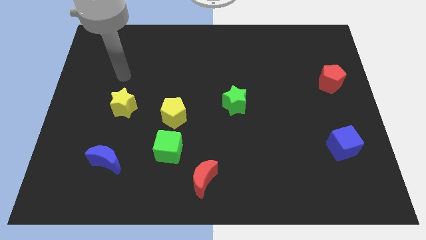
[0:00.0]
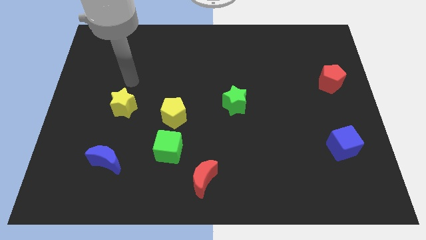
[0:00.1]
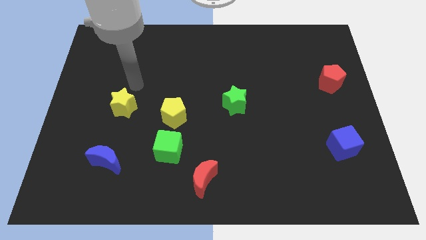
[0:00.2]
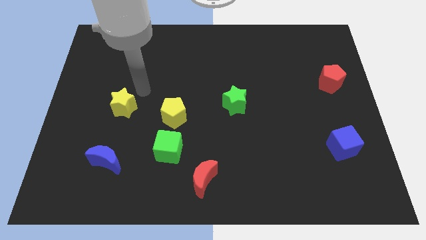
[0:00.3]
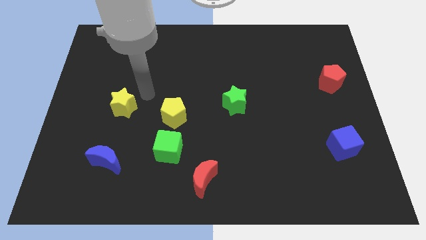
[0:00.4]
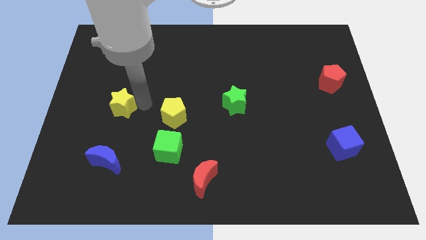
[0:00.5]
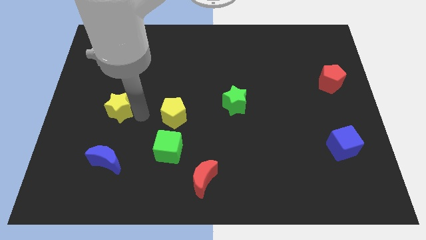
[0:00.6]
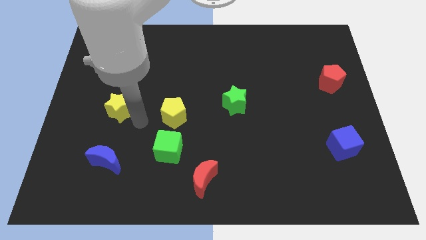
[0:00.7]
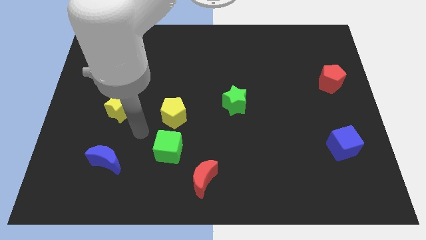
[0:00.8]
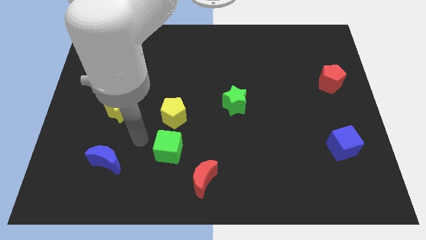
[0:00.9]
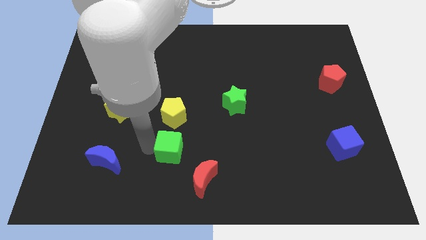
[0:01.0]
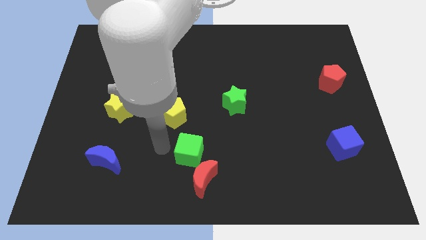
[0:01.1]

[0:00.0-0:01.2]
pull the yellow pentagon apart from the green cube

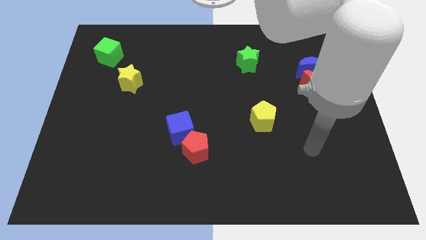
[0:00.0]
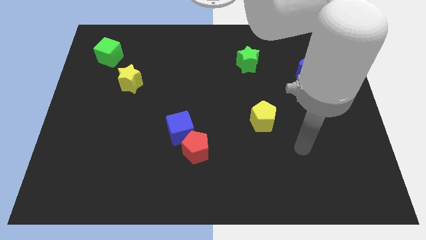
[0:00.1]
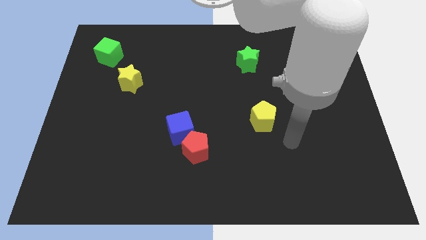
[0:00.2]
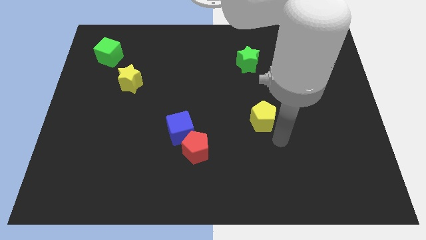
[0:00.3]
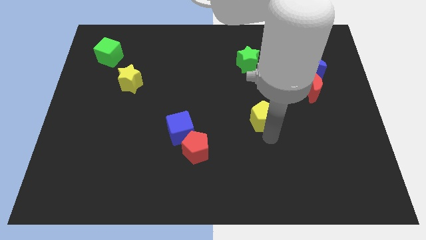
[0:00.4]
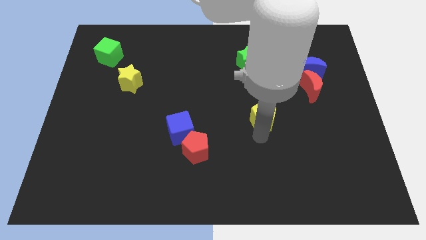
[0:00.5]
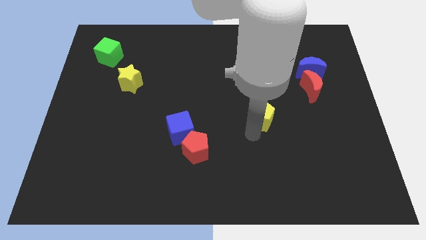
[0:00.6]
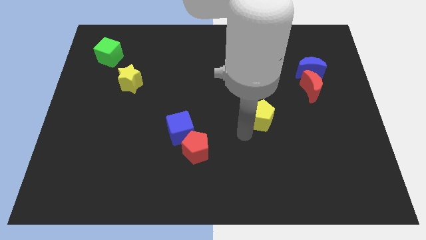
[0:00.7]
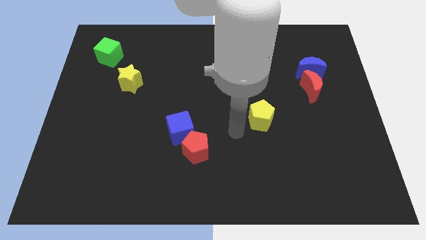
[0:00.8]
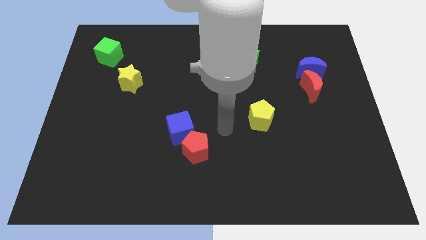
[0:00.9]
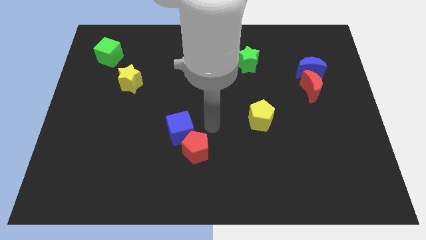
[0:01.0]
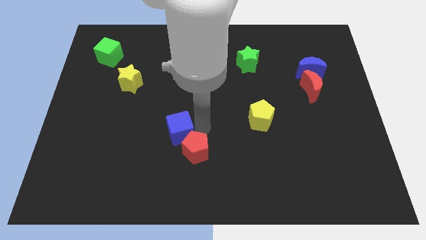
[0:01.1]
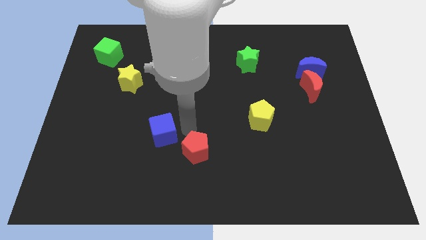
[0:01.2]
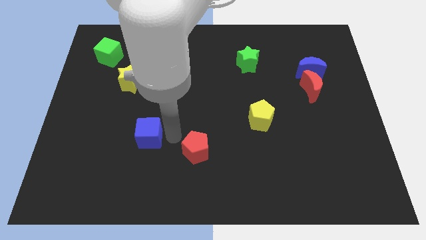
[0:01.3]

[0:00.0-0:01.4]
pull the red pentagon apart from the blue cube

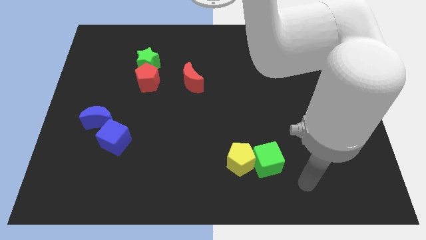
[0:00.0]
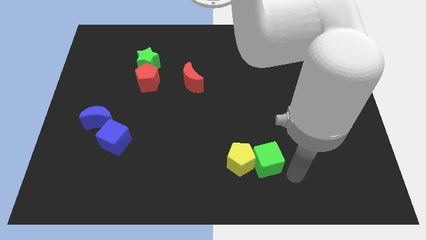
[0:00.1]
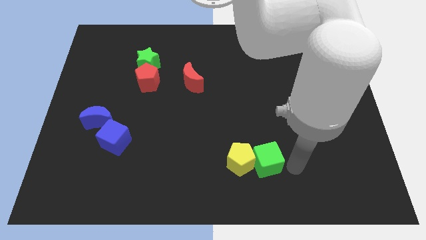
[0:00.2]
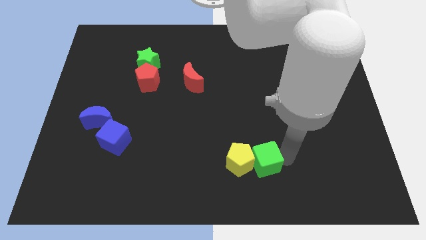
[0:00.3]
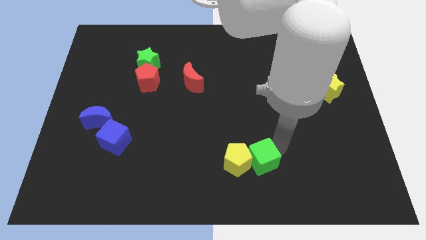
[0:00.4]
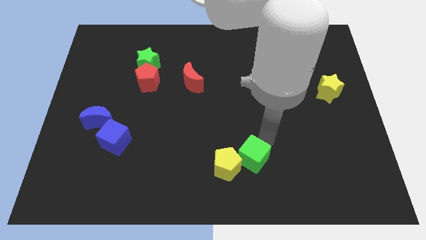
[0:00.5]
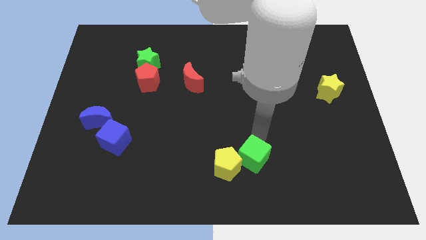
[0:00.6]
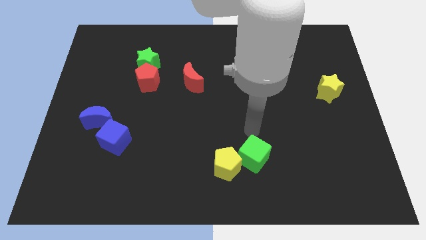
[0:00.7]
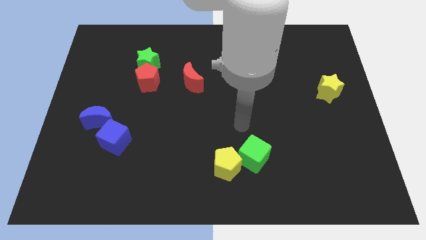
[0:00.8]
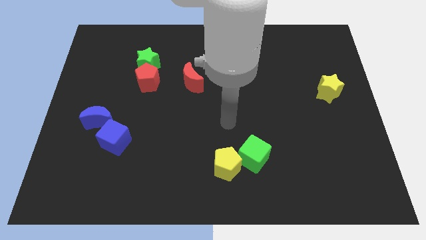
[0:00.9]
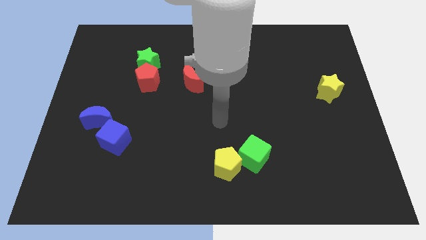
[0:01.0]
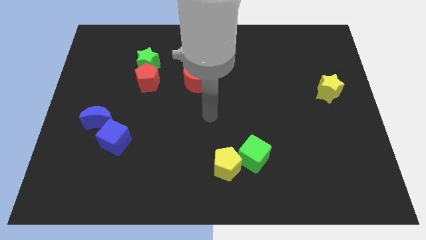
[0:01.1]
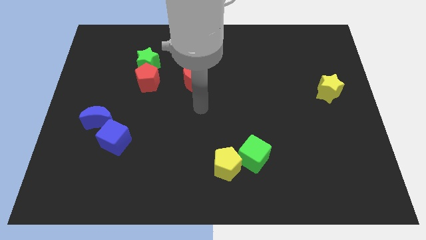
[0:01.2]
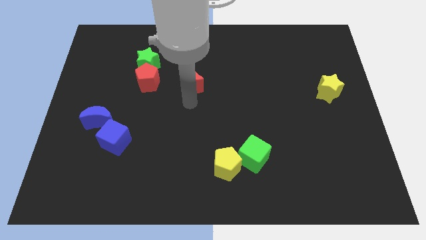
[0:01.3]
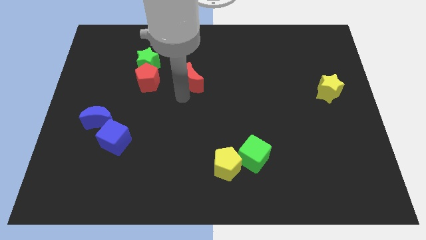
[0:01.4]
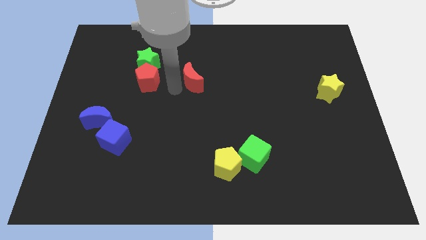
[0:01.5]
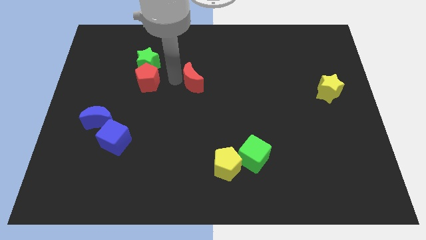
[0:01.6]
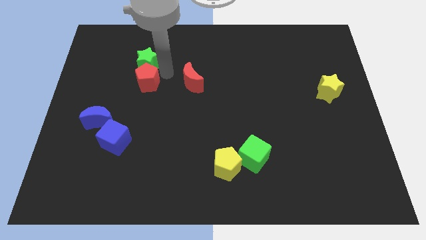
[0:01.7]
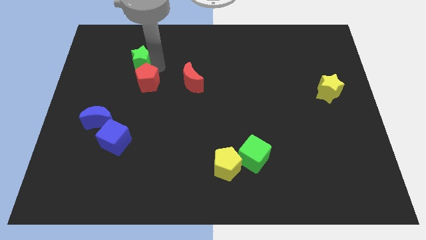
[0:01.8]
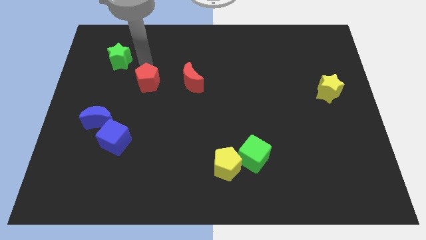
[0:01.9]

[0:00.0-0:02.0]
pull the red pentagon apart from the green star

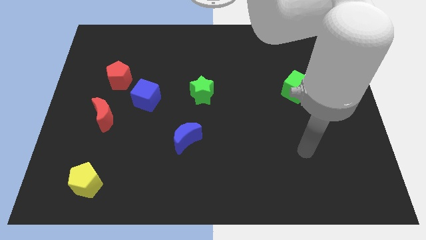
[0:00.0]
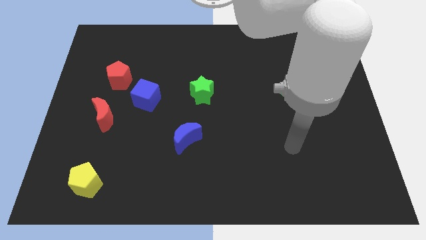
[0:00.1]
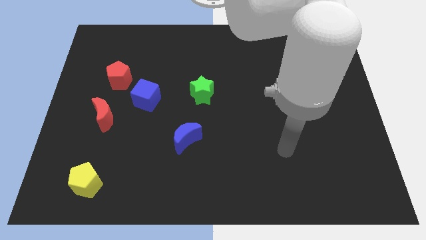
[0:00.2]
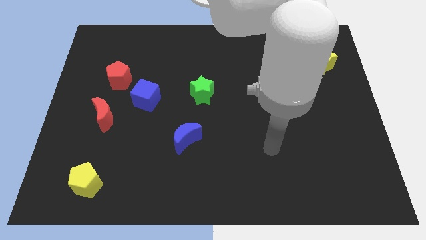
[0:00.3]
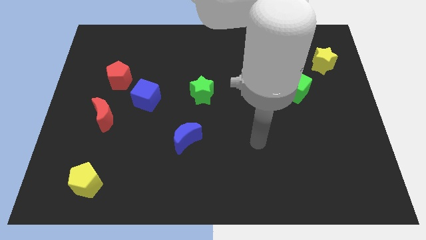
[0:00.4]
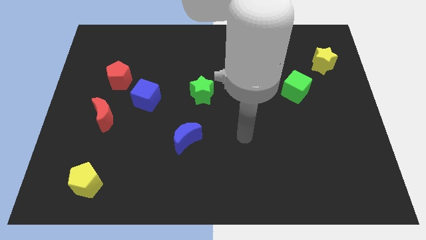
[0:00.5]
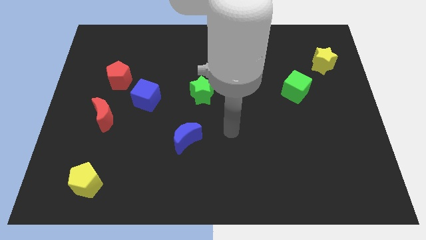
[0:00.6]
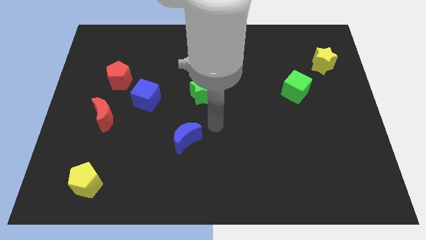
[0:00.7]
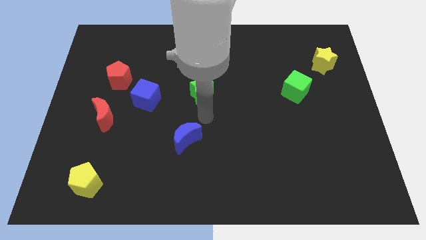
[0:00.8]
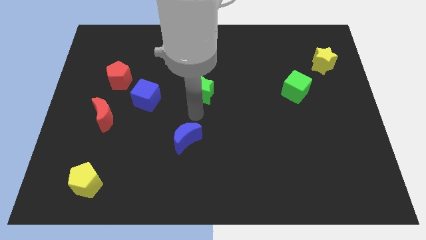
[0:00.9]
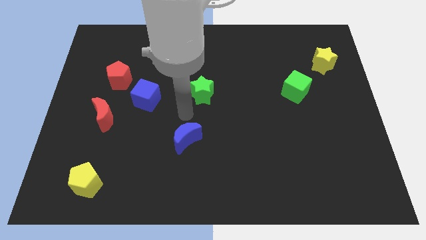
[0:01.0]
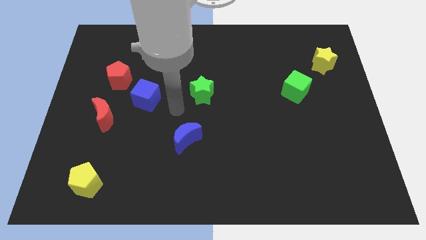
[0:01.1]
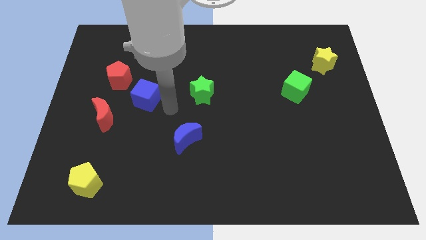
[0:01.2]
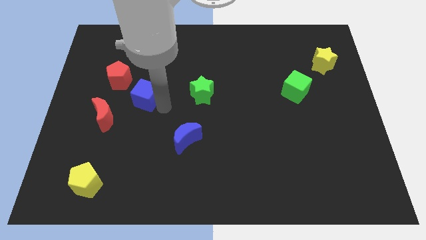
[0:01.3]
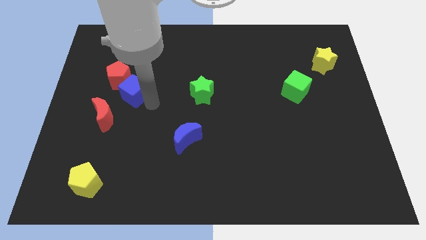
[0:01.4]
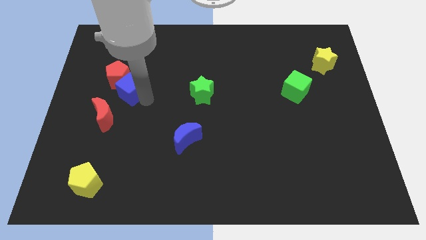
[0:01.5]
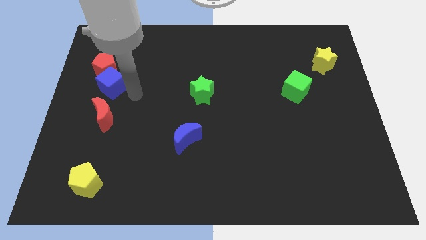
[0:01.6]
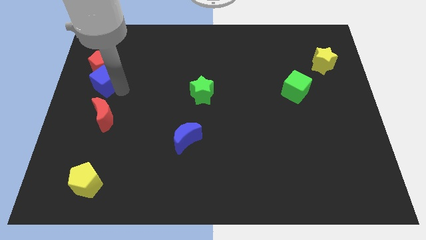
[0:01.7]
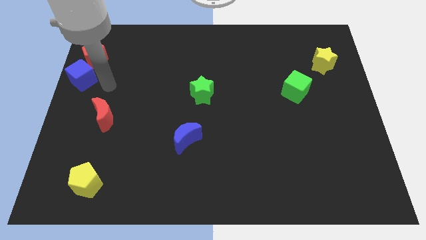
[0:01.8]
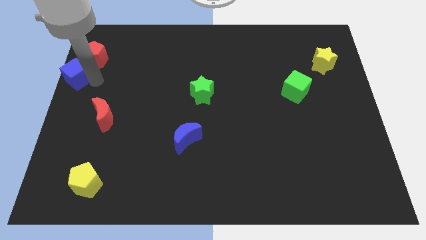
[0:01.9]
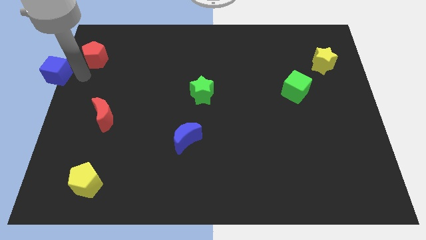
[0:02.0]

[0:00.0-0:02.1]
move the red pentagon away from the blue cube

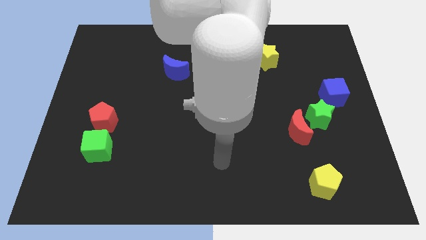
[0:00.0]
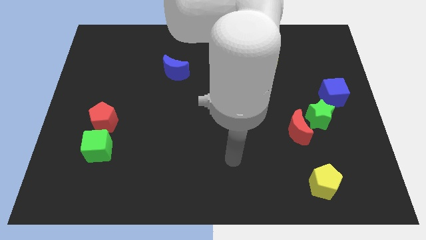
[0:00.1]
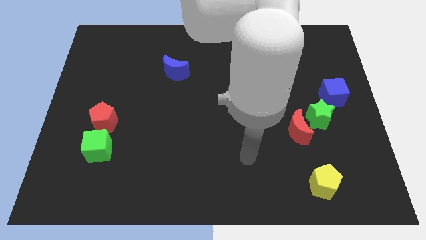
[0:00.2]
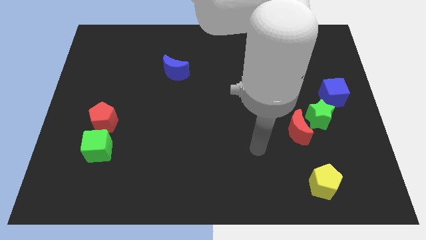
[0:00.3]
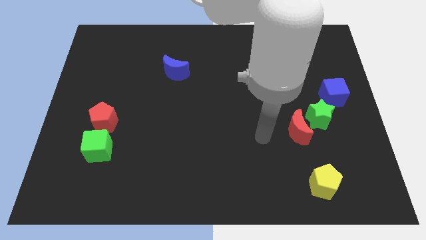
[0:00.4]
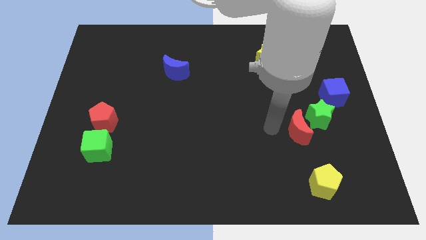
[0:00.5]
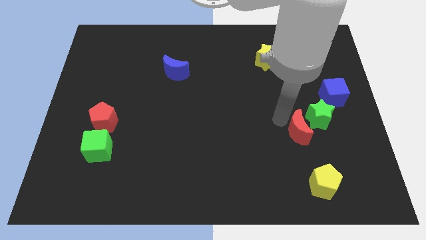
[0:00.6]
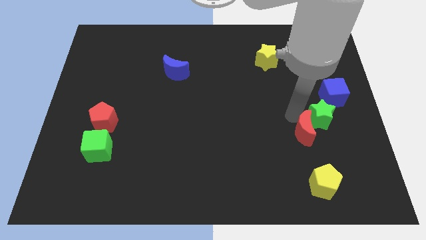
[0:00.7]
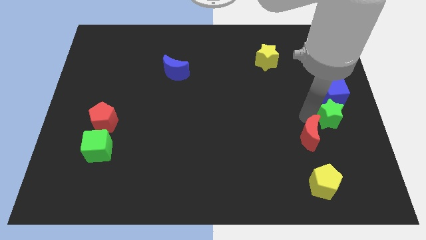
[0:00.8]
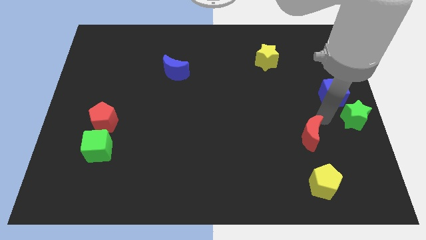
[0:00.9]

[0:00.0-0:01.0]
move the red moon away from the green star

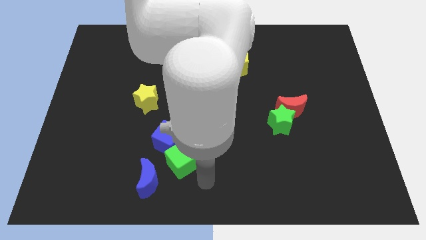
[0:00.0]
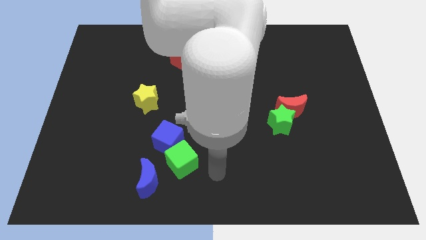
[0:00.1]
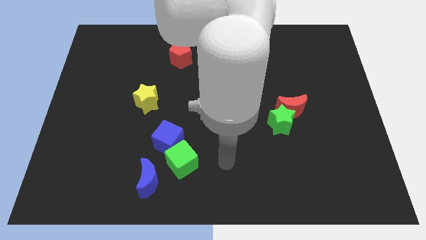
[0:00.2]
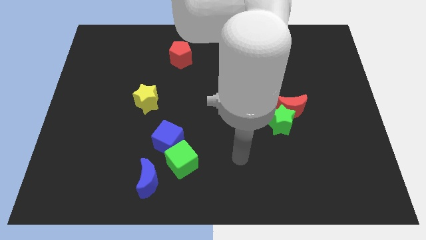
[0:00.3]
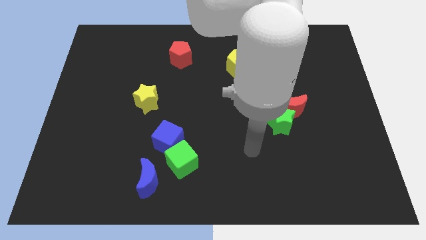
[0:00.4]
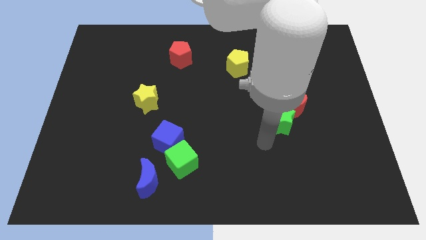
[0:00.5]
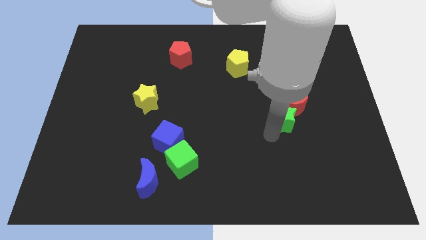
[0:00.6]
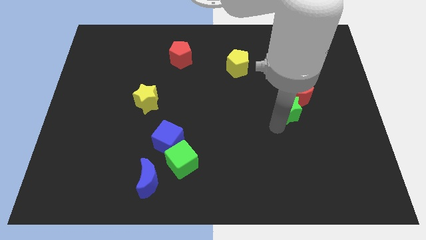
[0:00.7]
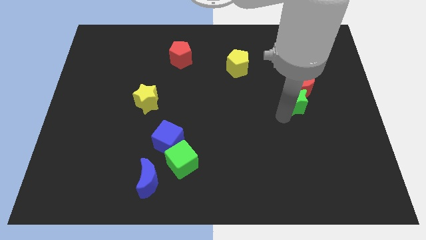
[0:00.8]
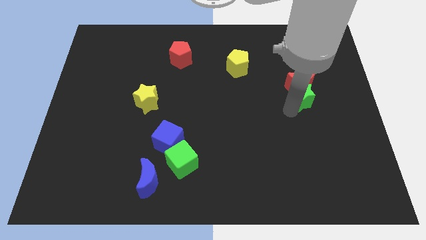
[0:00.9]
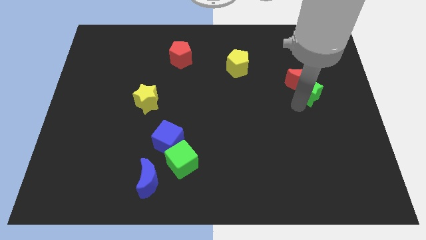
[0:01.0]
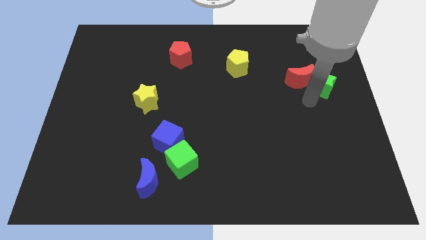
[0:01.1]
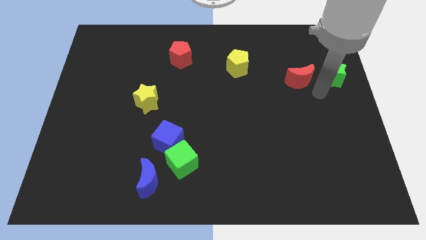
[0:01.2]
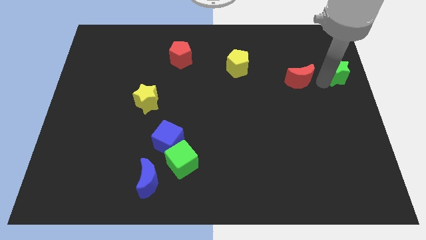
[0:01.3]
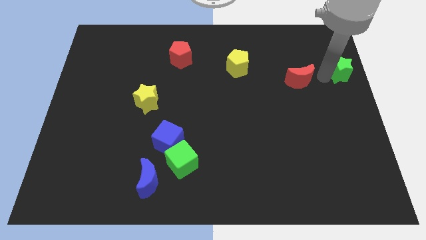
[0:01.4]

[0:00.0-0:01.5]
separate the red moon from the green star

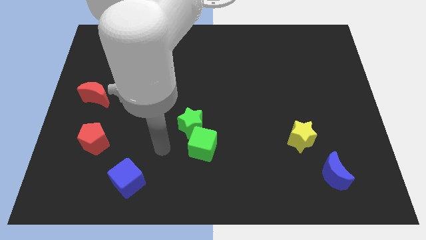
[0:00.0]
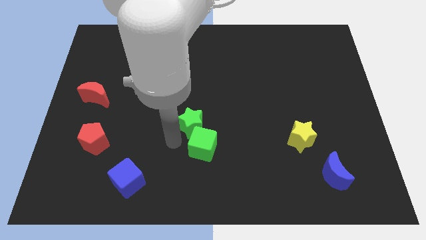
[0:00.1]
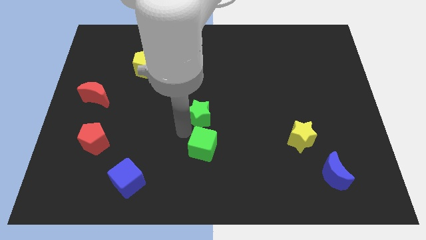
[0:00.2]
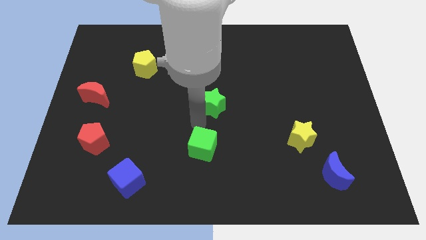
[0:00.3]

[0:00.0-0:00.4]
pull the green cube apart from the green star
